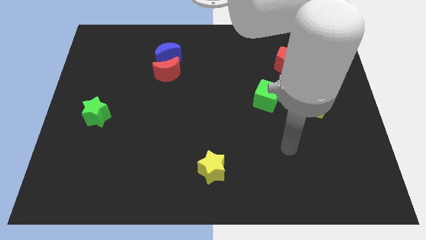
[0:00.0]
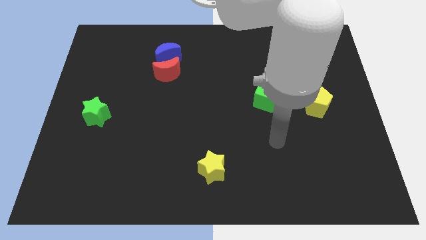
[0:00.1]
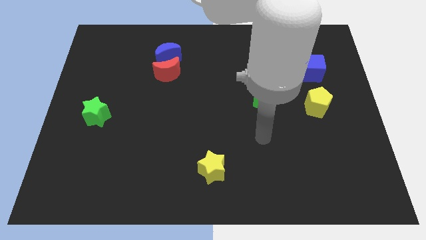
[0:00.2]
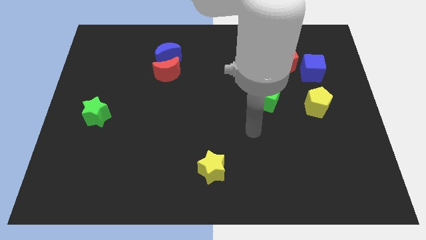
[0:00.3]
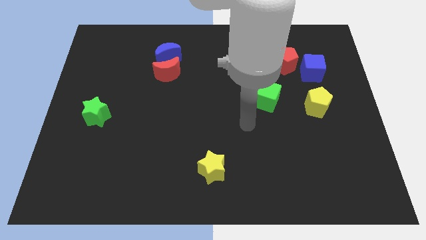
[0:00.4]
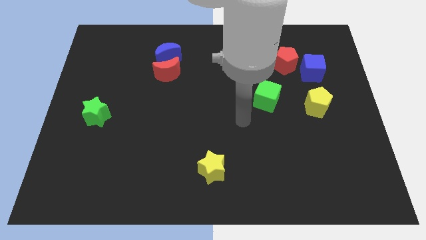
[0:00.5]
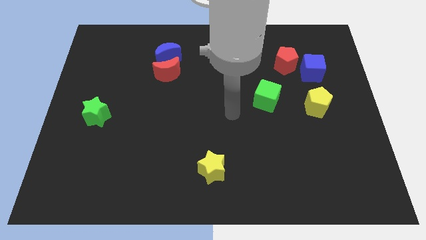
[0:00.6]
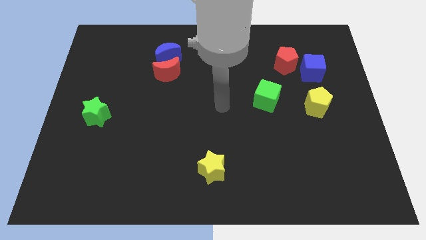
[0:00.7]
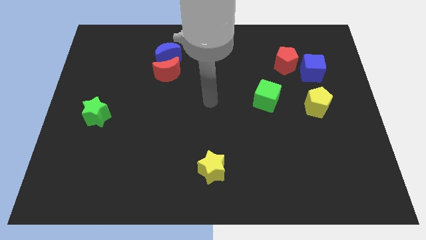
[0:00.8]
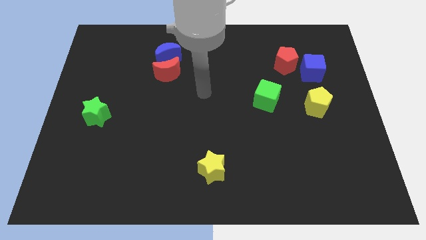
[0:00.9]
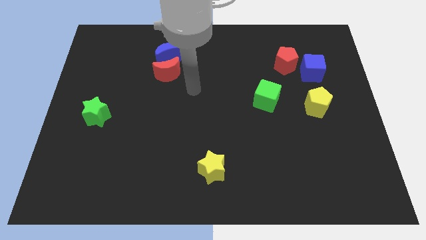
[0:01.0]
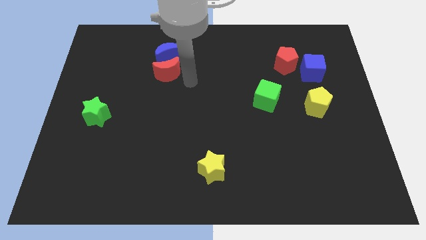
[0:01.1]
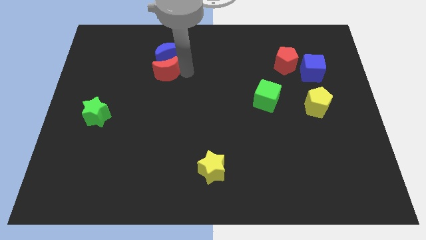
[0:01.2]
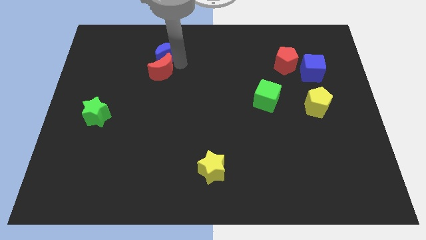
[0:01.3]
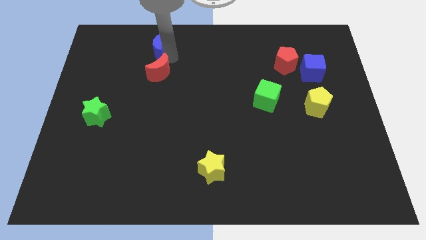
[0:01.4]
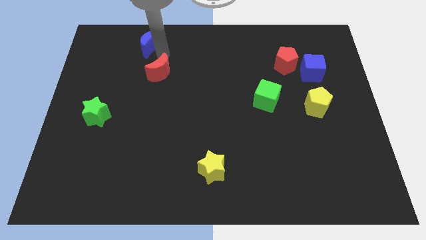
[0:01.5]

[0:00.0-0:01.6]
separate the red moon from the blue moon

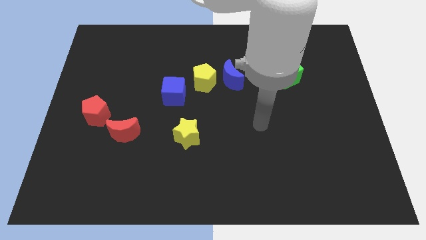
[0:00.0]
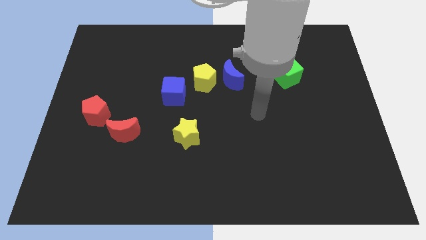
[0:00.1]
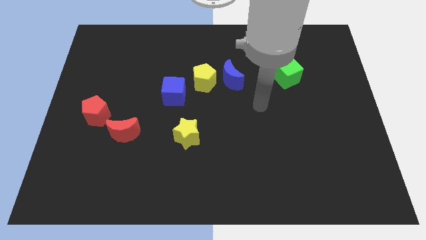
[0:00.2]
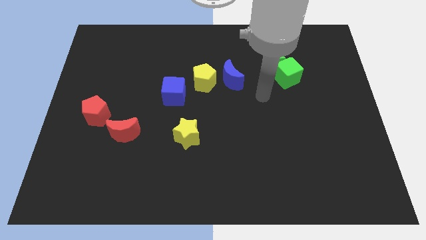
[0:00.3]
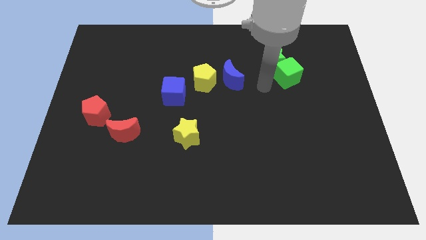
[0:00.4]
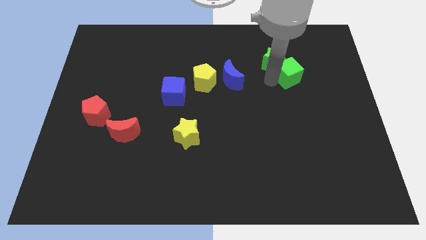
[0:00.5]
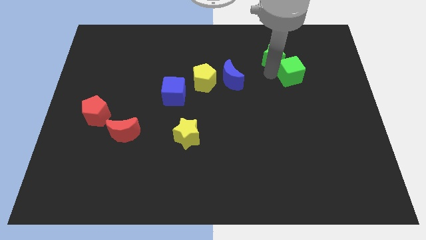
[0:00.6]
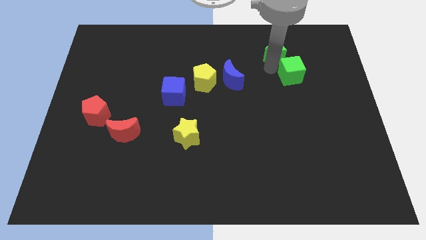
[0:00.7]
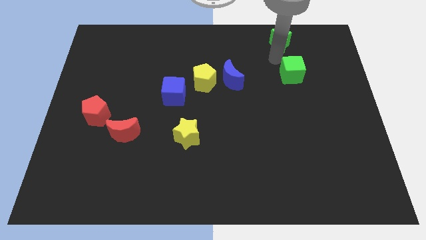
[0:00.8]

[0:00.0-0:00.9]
separate the green cube from the green star

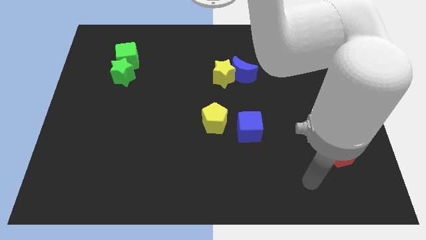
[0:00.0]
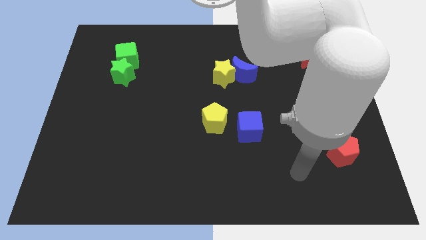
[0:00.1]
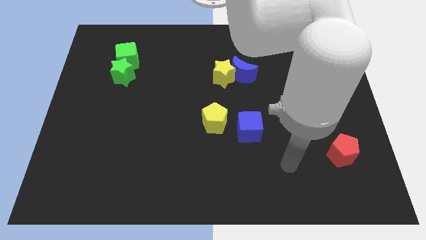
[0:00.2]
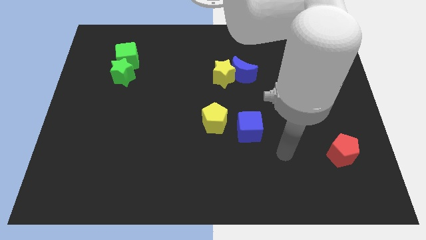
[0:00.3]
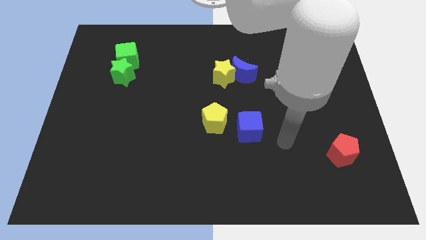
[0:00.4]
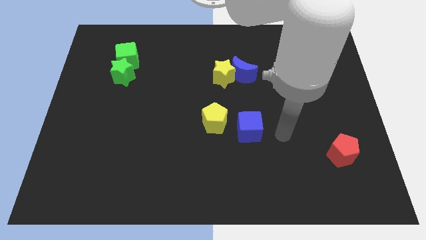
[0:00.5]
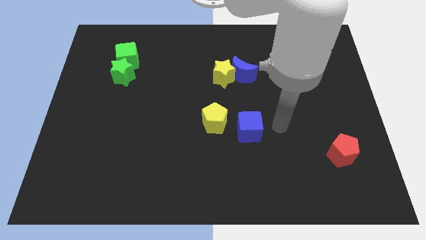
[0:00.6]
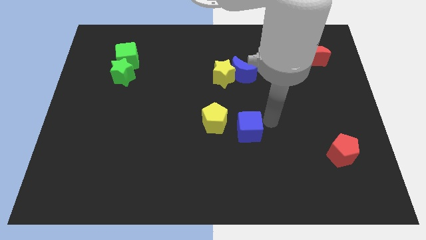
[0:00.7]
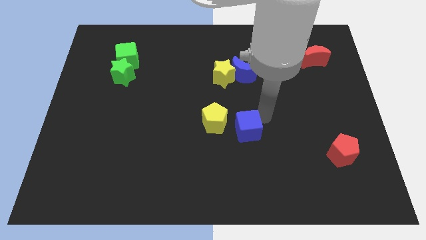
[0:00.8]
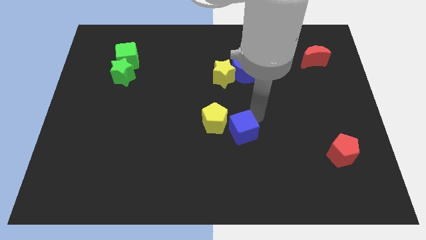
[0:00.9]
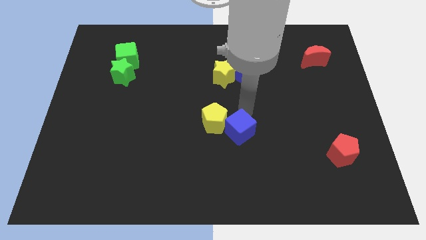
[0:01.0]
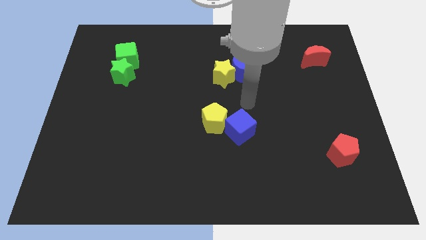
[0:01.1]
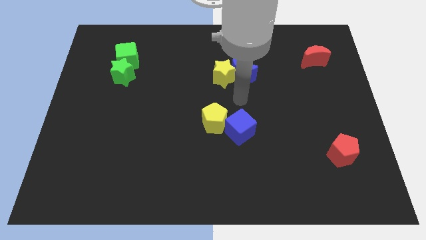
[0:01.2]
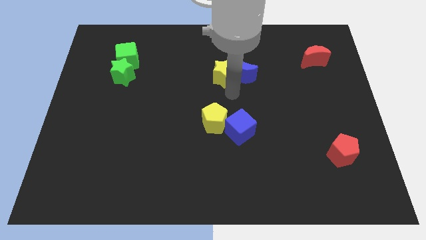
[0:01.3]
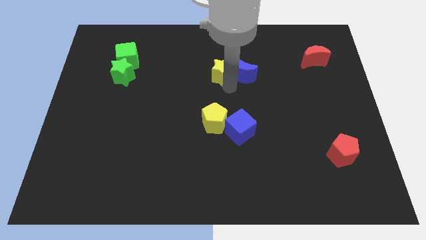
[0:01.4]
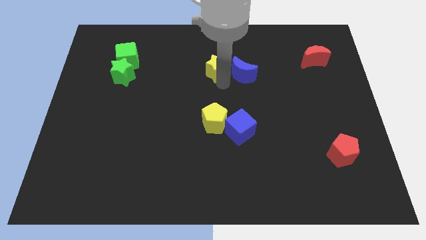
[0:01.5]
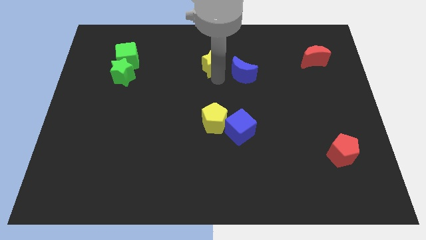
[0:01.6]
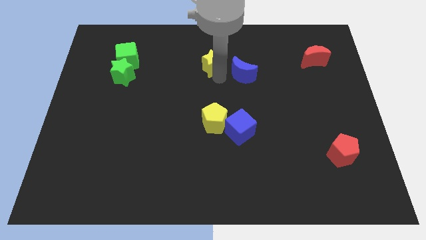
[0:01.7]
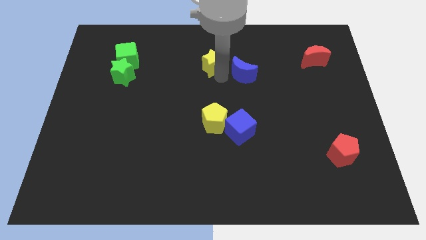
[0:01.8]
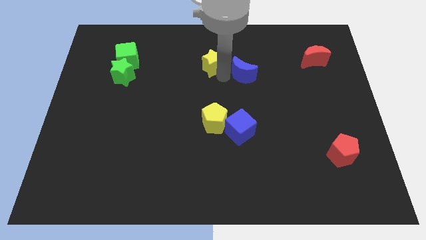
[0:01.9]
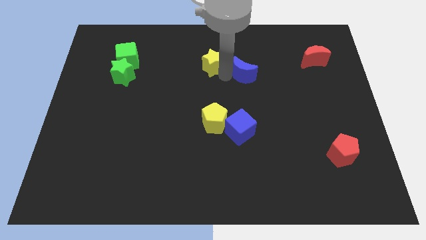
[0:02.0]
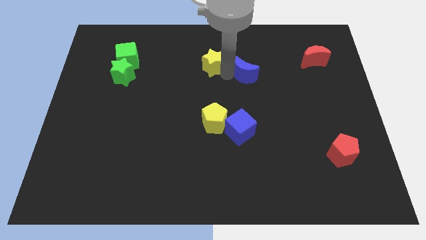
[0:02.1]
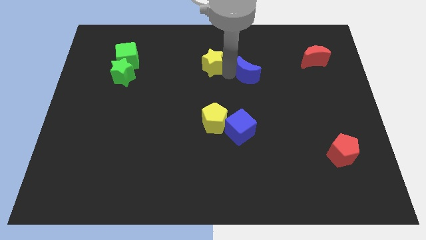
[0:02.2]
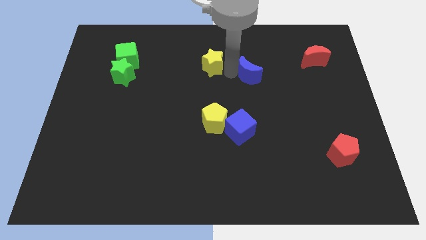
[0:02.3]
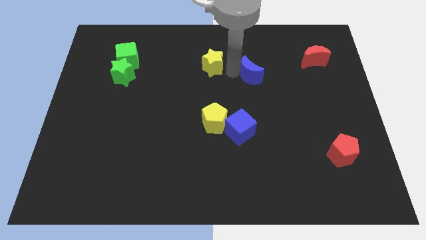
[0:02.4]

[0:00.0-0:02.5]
move the blue moon away from the yellow star

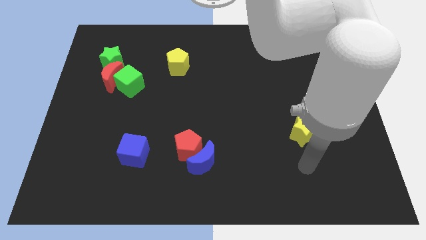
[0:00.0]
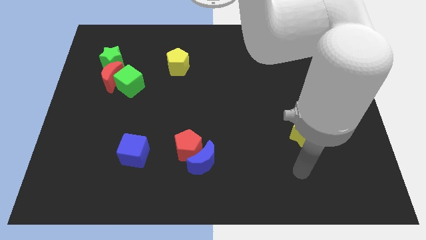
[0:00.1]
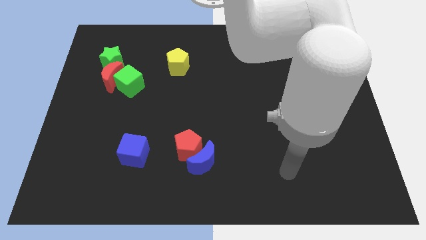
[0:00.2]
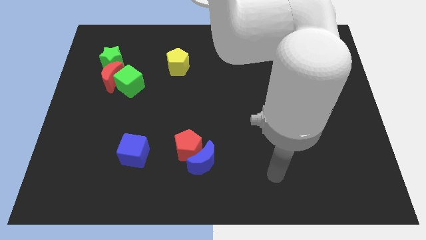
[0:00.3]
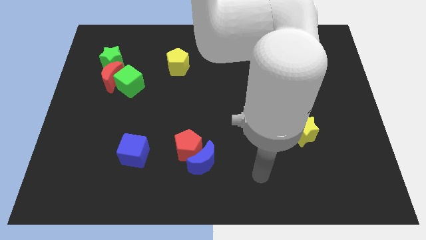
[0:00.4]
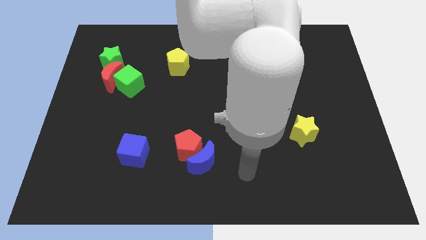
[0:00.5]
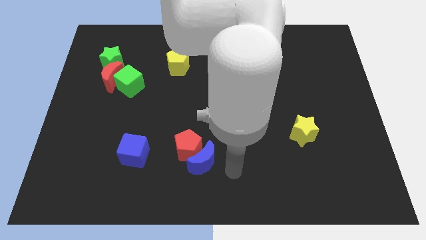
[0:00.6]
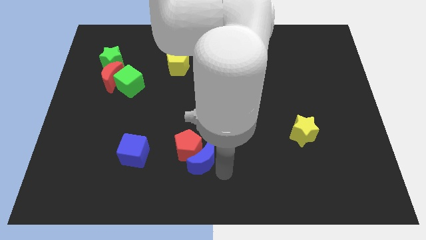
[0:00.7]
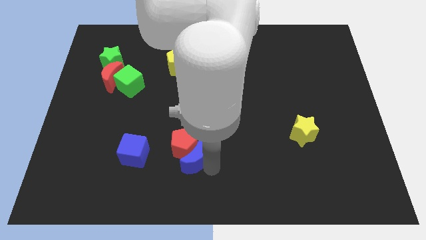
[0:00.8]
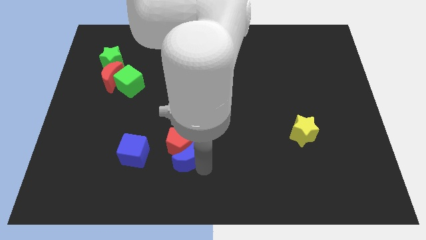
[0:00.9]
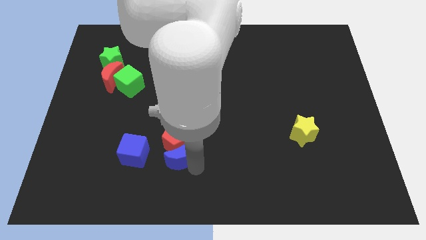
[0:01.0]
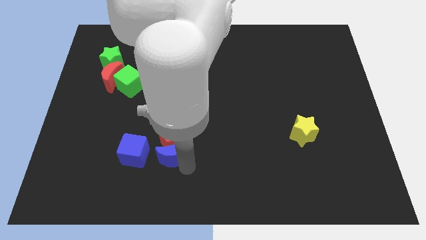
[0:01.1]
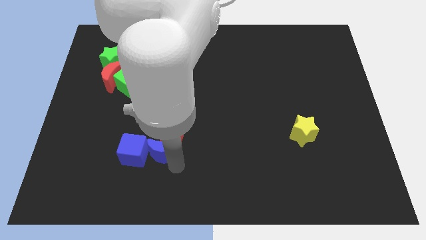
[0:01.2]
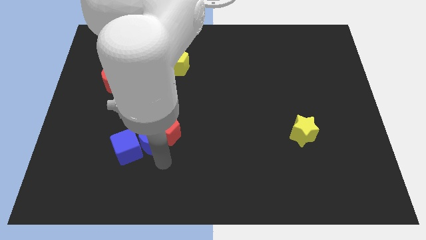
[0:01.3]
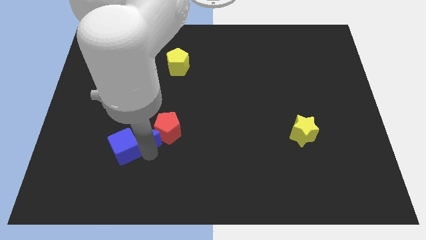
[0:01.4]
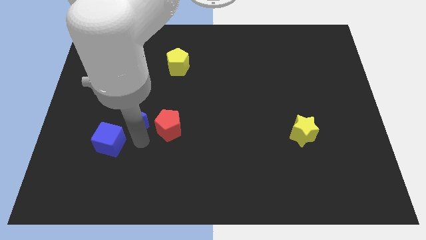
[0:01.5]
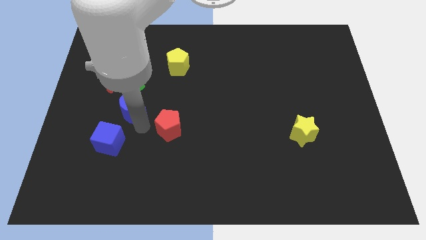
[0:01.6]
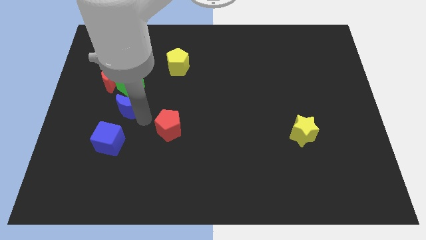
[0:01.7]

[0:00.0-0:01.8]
pull the red pentagon apart from the blue moon

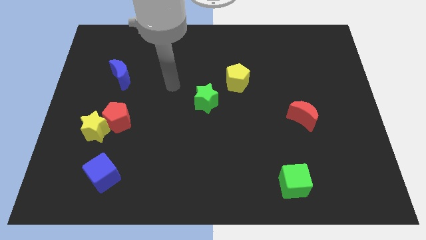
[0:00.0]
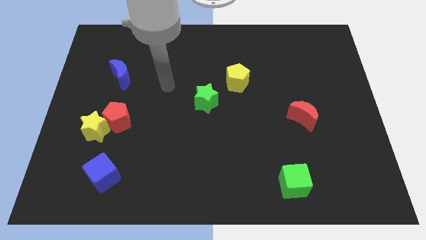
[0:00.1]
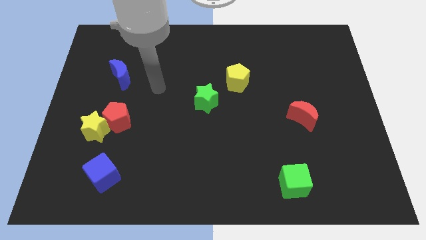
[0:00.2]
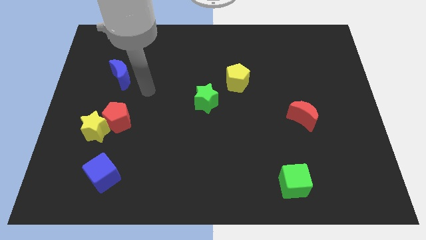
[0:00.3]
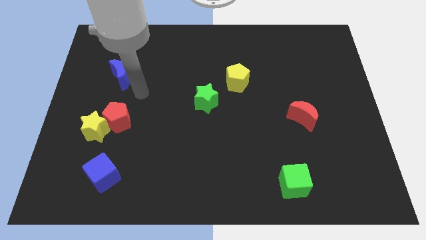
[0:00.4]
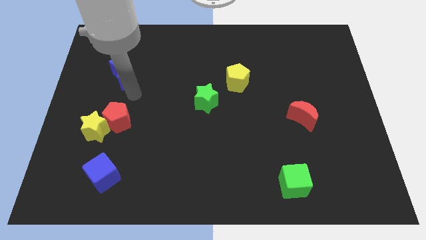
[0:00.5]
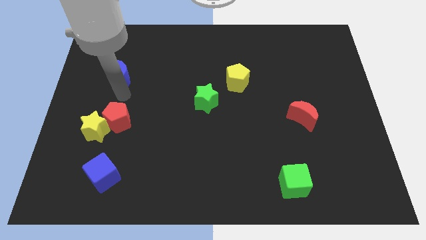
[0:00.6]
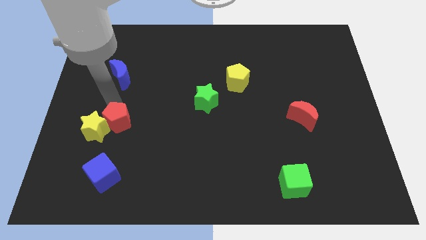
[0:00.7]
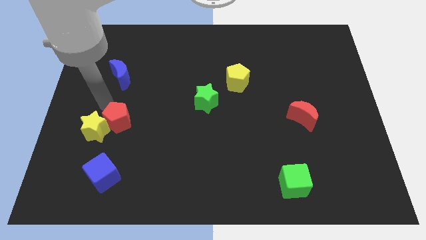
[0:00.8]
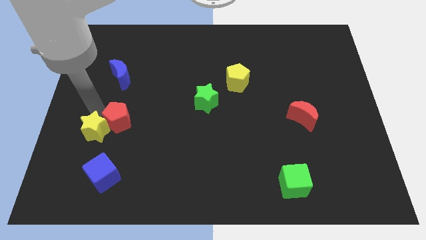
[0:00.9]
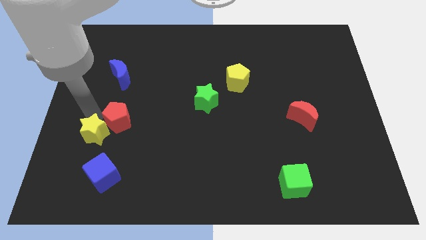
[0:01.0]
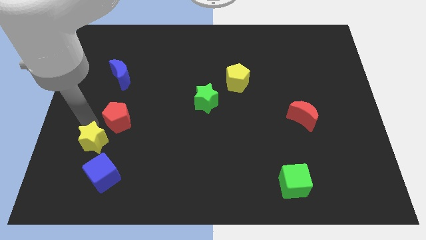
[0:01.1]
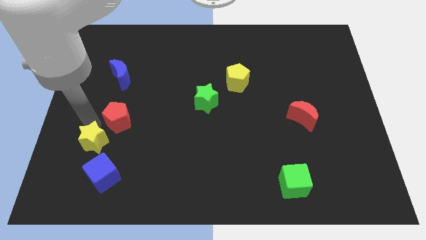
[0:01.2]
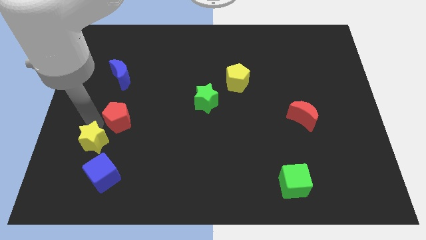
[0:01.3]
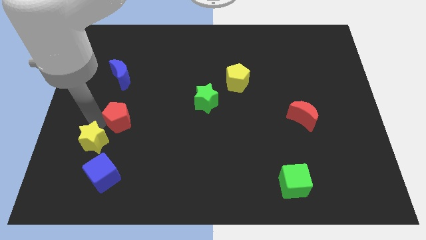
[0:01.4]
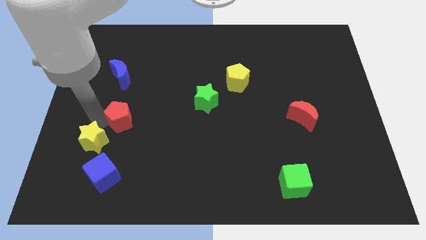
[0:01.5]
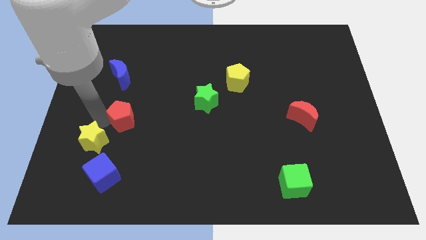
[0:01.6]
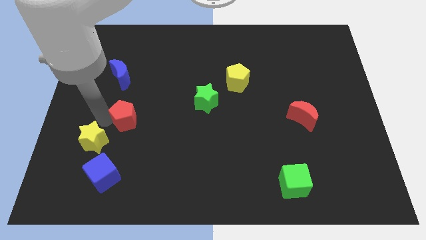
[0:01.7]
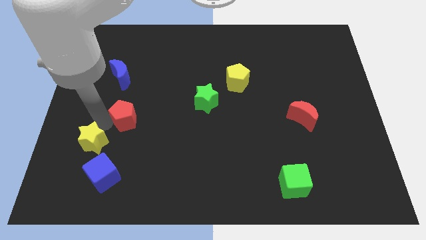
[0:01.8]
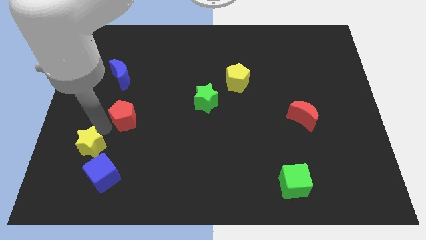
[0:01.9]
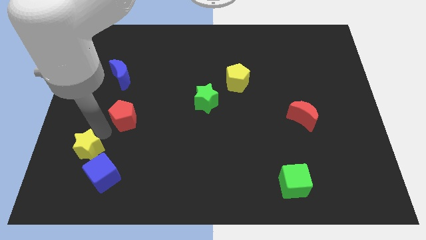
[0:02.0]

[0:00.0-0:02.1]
separate the red pentagon from the yellow star

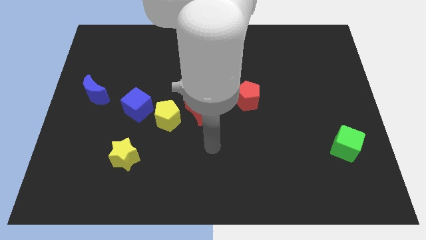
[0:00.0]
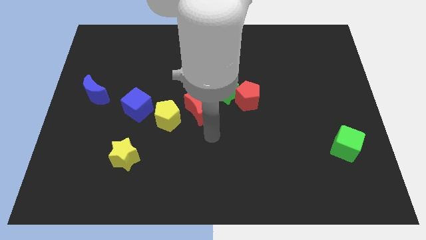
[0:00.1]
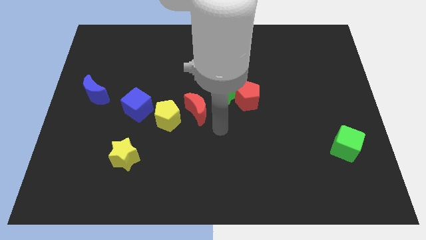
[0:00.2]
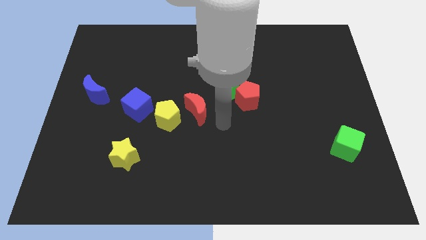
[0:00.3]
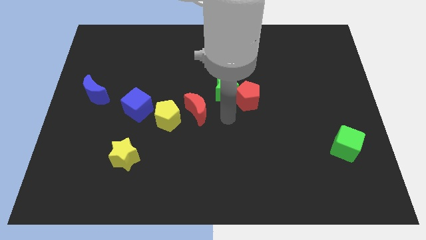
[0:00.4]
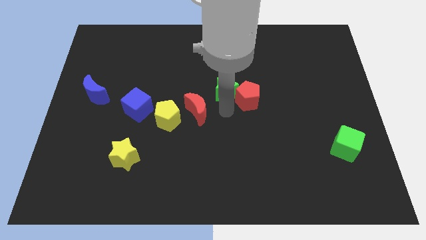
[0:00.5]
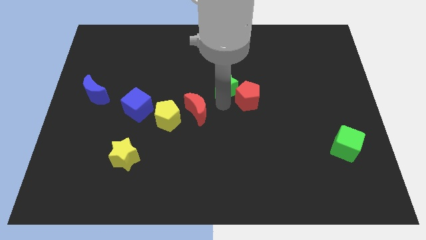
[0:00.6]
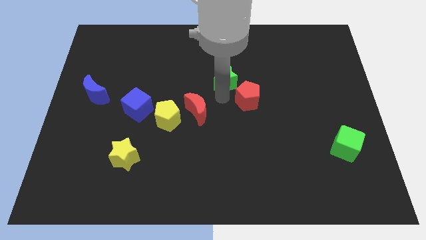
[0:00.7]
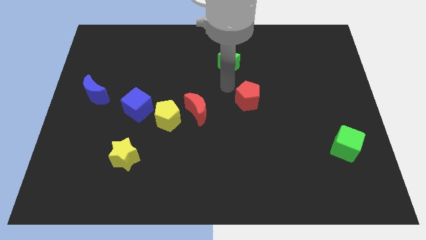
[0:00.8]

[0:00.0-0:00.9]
separate the red pentagon from the green star
